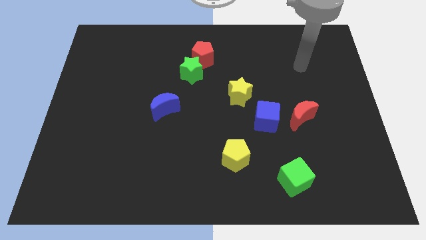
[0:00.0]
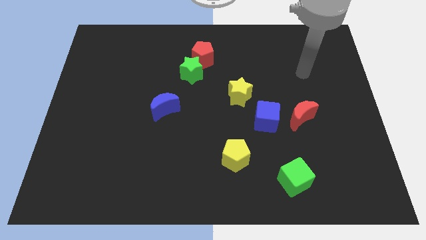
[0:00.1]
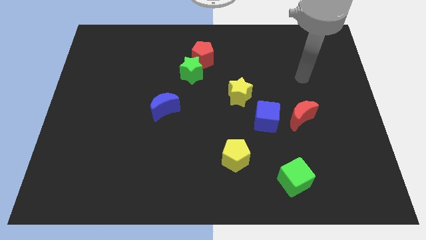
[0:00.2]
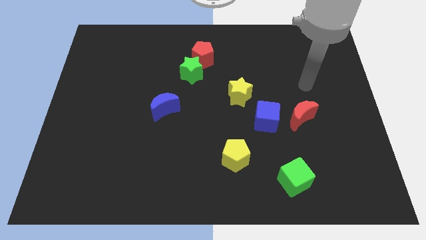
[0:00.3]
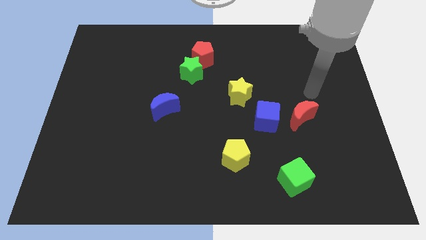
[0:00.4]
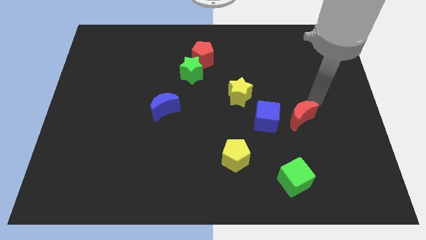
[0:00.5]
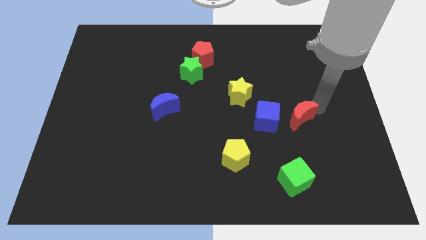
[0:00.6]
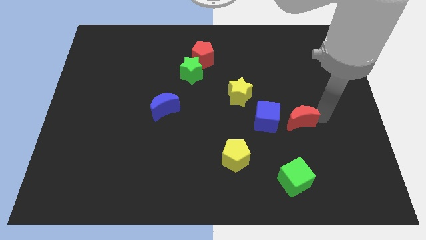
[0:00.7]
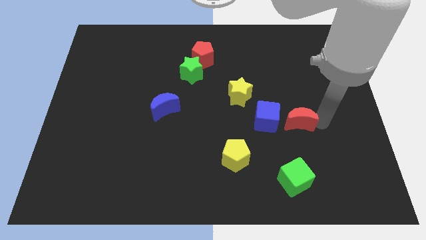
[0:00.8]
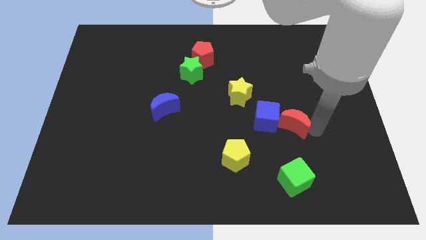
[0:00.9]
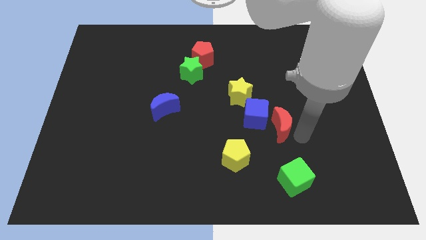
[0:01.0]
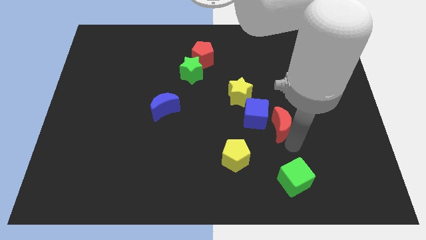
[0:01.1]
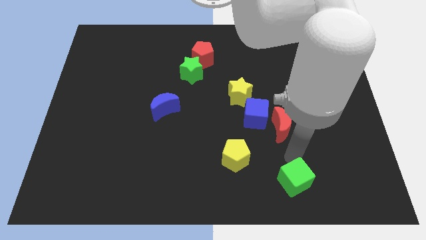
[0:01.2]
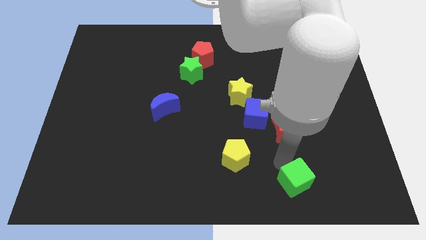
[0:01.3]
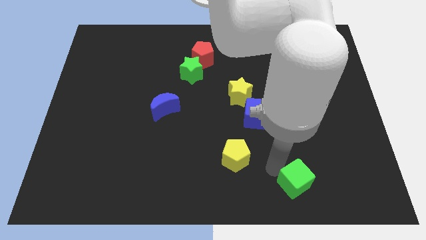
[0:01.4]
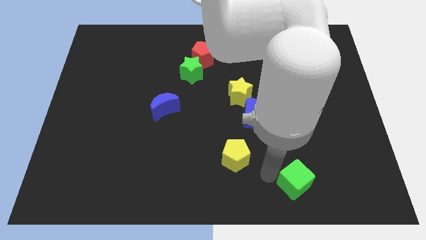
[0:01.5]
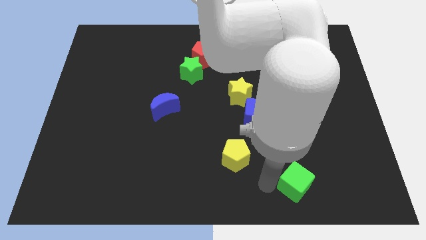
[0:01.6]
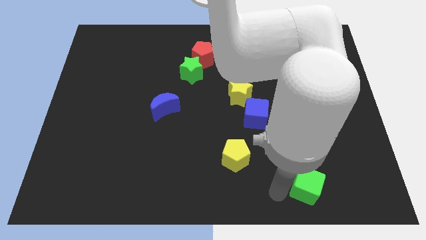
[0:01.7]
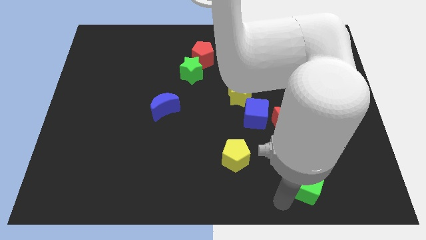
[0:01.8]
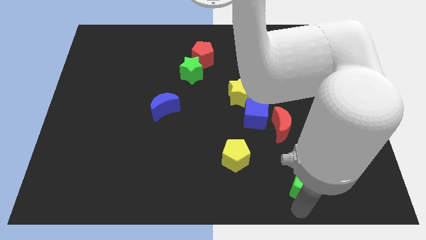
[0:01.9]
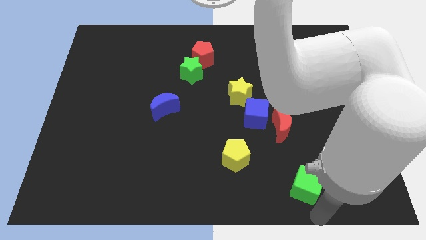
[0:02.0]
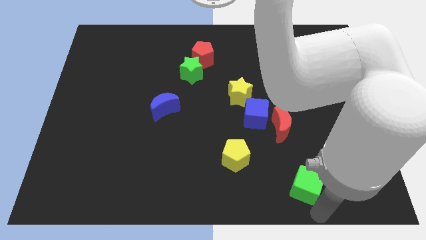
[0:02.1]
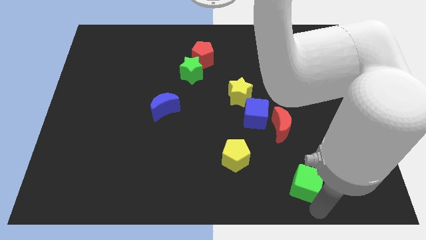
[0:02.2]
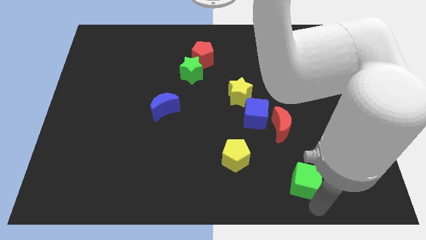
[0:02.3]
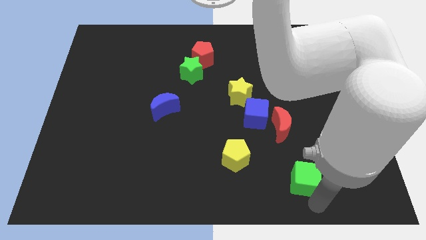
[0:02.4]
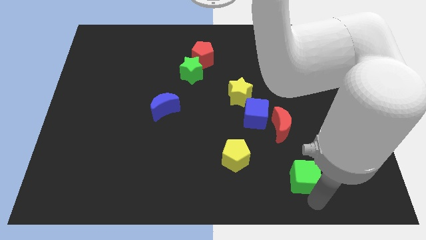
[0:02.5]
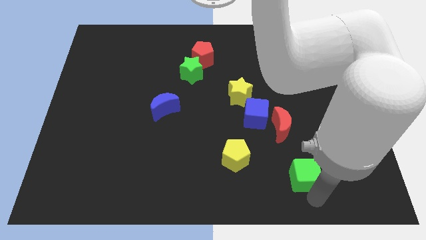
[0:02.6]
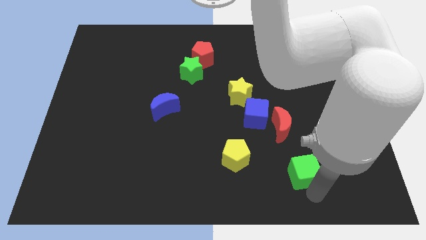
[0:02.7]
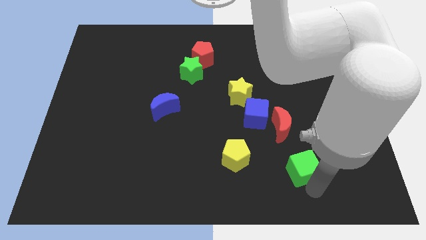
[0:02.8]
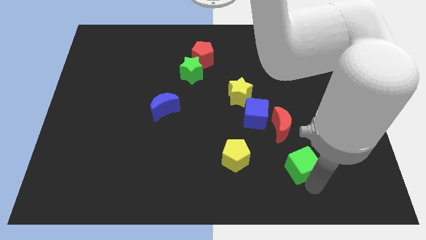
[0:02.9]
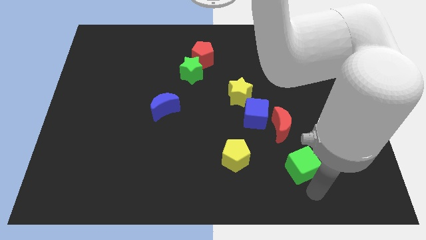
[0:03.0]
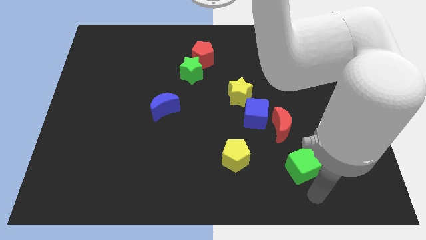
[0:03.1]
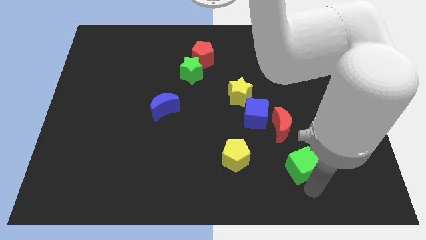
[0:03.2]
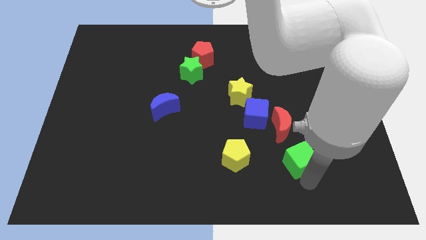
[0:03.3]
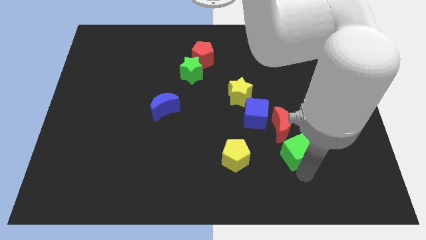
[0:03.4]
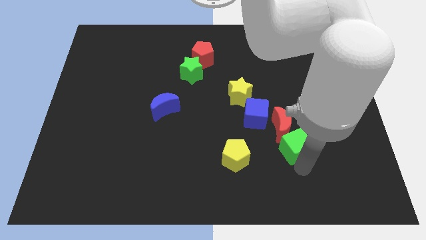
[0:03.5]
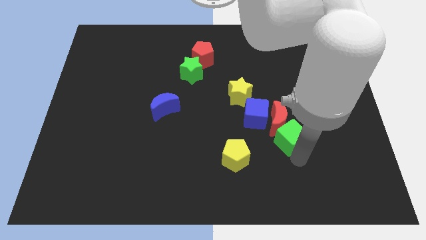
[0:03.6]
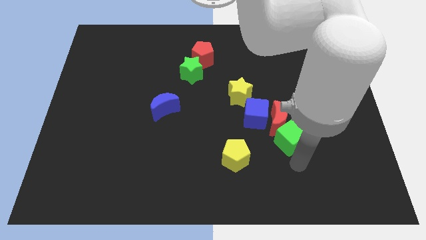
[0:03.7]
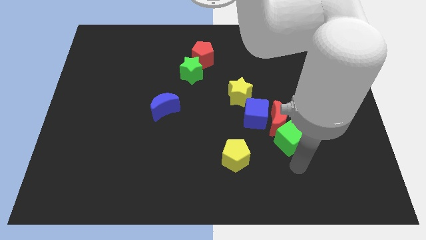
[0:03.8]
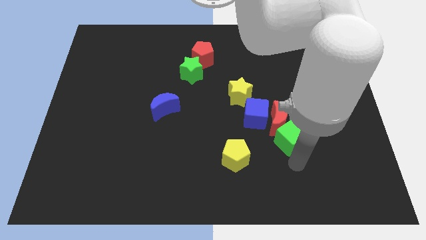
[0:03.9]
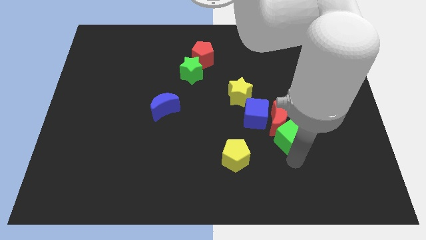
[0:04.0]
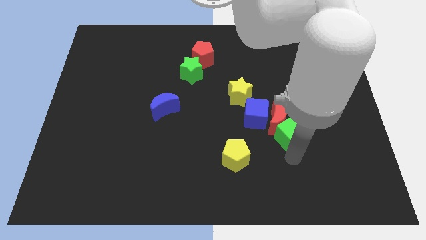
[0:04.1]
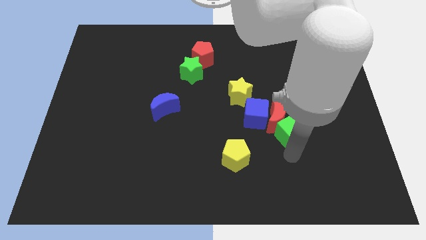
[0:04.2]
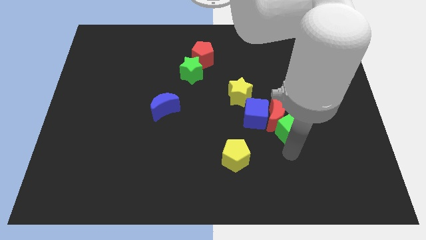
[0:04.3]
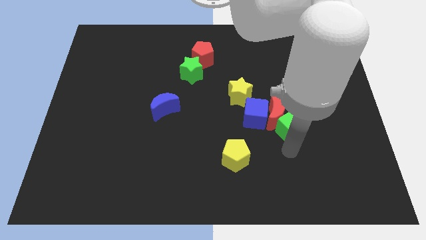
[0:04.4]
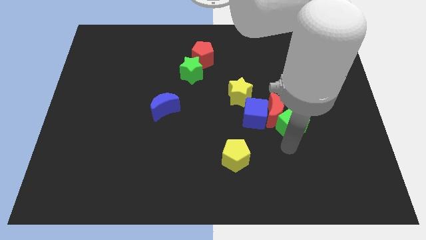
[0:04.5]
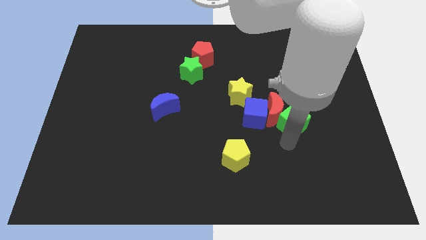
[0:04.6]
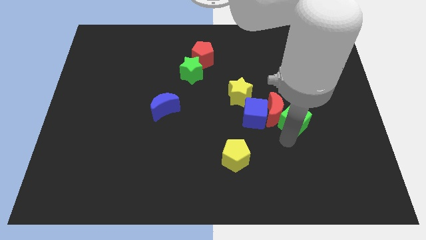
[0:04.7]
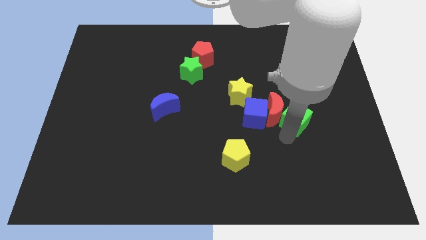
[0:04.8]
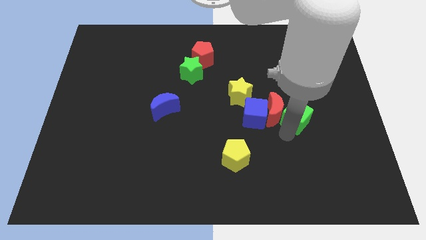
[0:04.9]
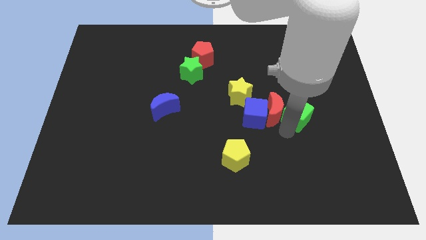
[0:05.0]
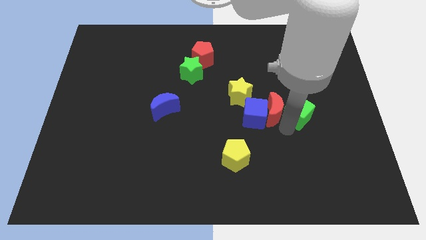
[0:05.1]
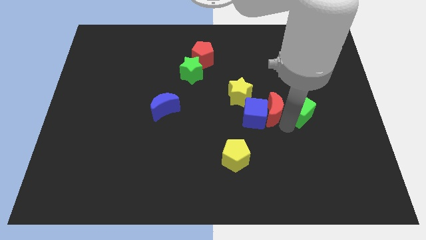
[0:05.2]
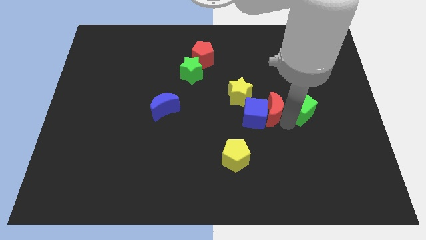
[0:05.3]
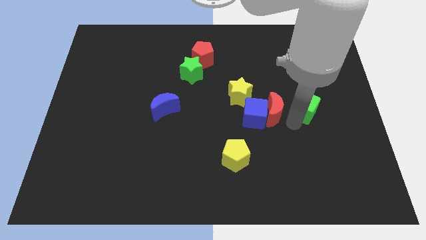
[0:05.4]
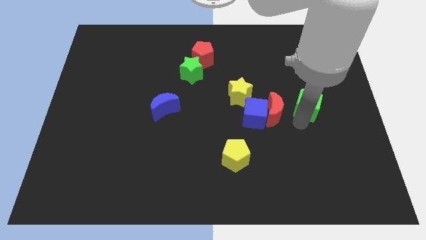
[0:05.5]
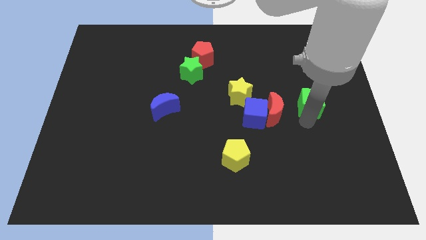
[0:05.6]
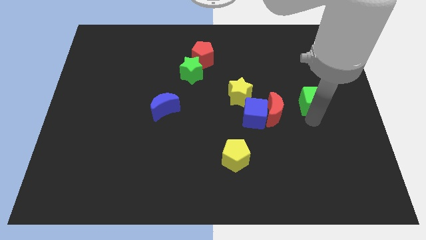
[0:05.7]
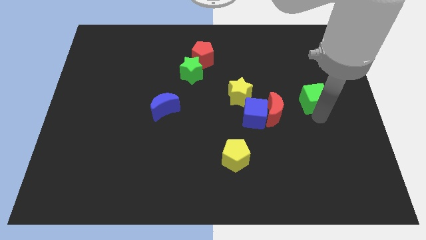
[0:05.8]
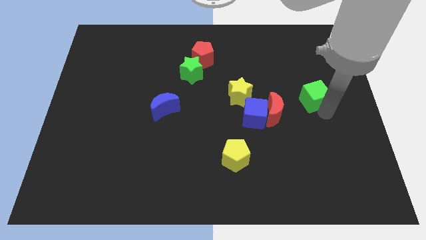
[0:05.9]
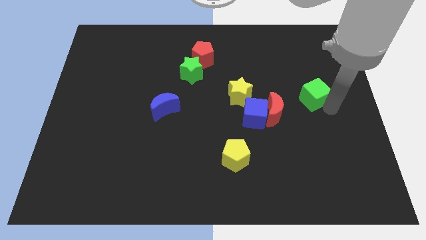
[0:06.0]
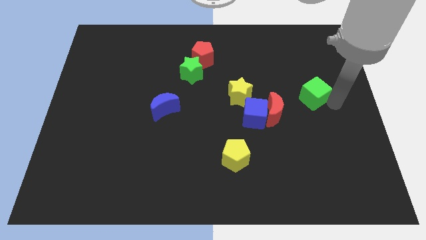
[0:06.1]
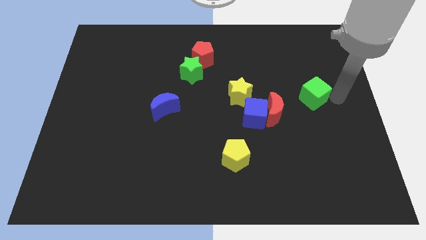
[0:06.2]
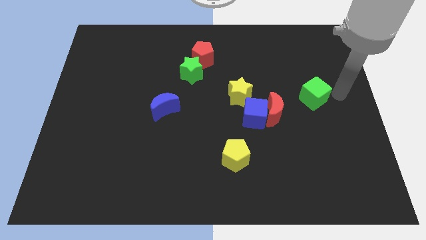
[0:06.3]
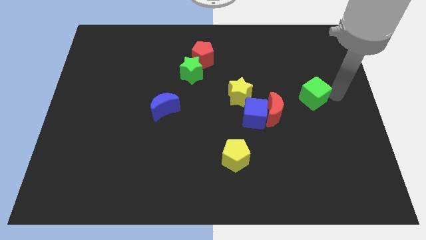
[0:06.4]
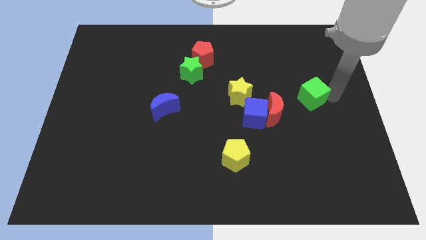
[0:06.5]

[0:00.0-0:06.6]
move the green cube upwards

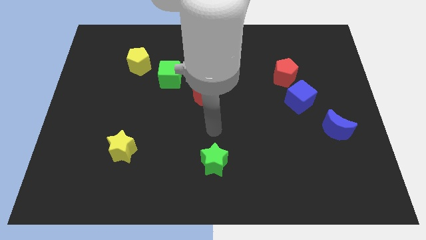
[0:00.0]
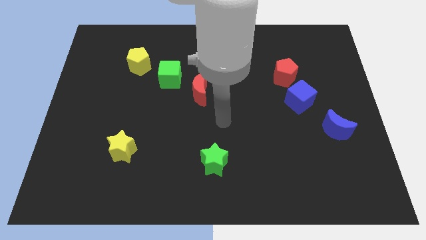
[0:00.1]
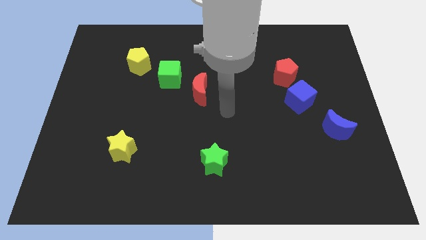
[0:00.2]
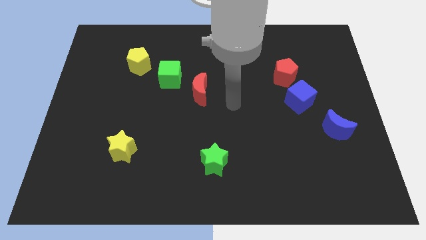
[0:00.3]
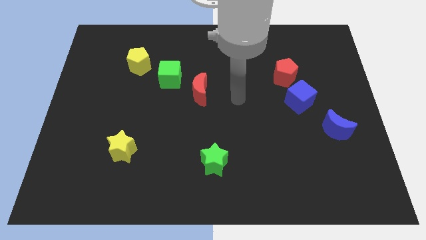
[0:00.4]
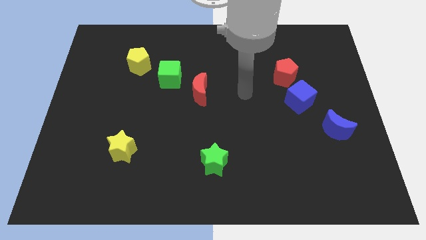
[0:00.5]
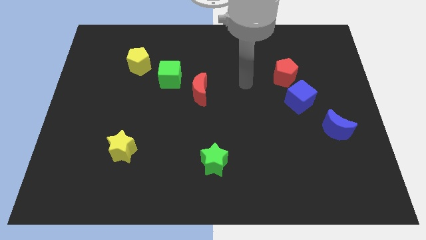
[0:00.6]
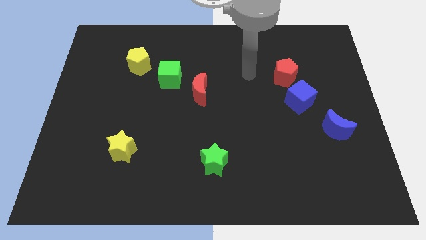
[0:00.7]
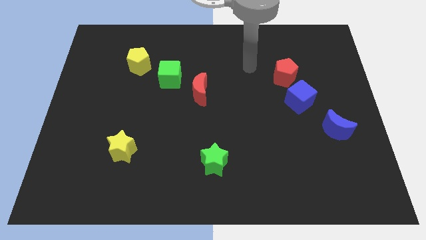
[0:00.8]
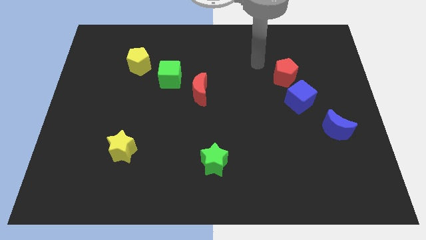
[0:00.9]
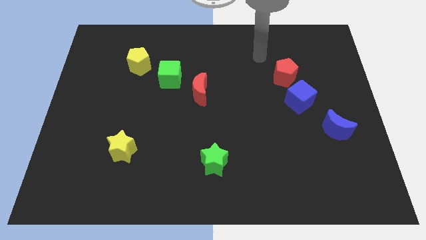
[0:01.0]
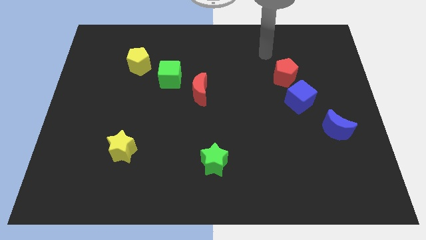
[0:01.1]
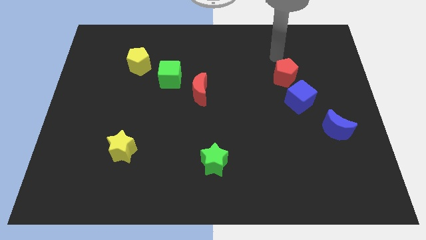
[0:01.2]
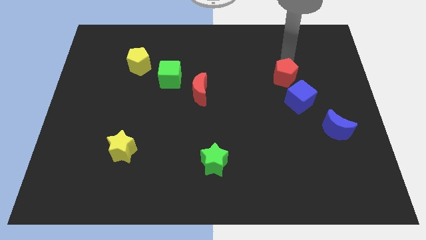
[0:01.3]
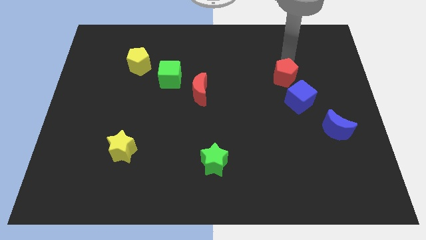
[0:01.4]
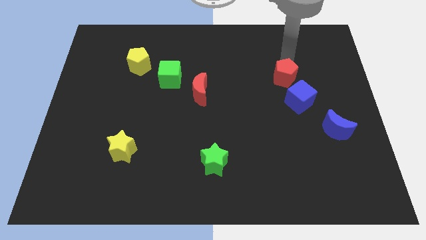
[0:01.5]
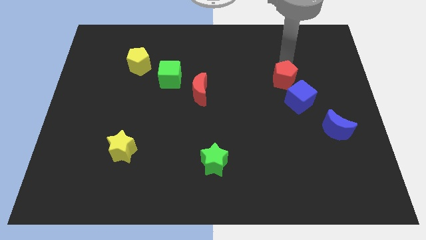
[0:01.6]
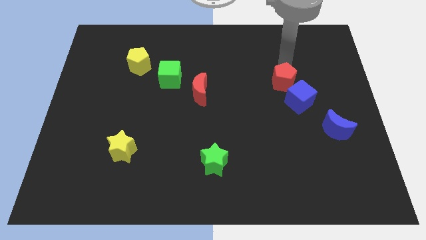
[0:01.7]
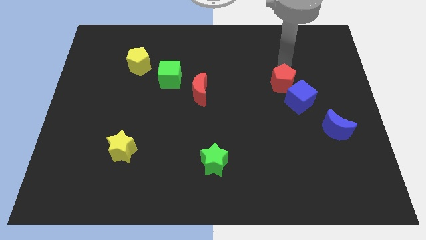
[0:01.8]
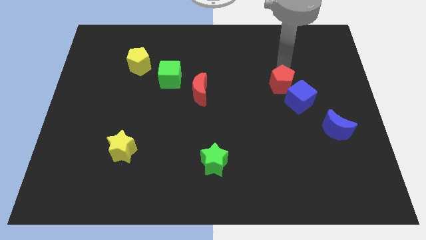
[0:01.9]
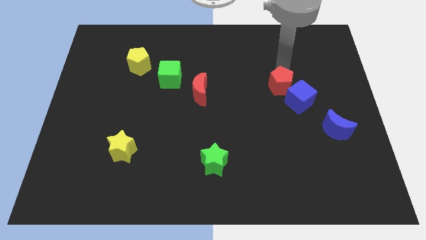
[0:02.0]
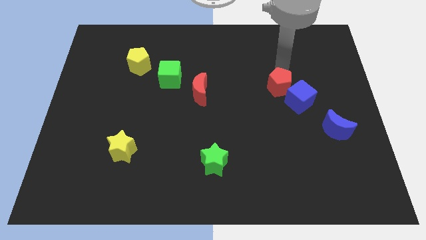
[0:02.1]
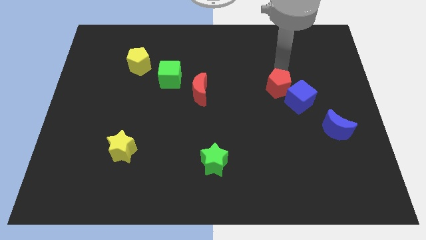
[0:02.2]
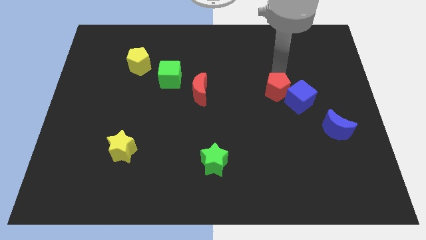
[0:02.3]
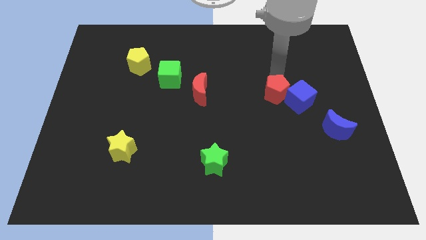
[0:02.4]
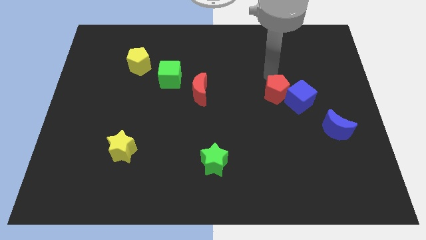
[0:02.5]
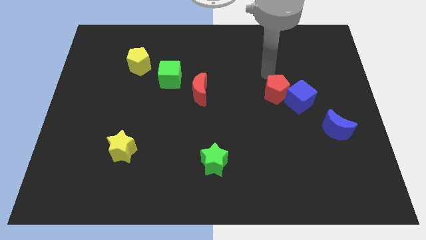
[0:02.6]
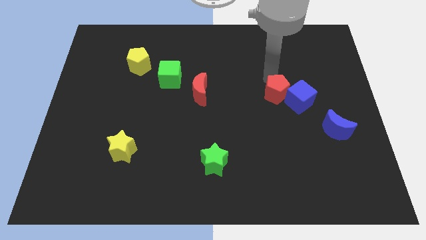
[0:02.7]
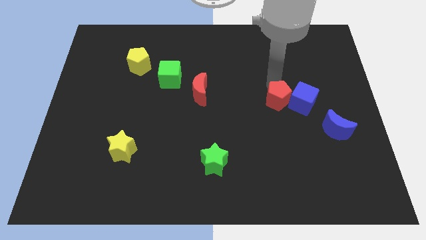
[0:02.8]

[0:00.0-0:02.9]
slightly push the red pentagon downwards
